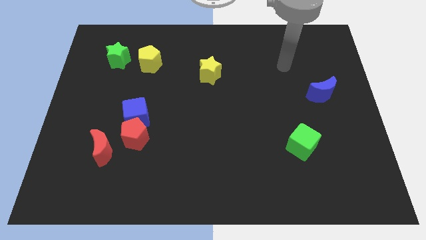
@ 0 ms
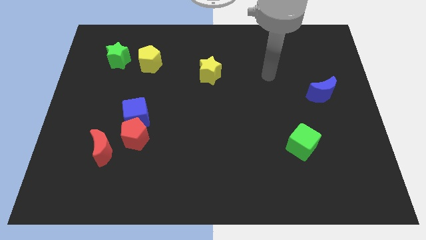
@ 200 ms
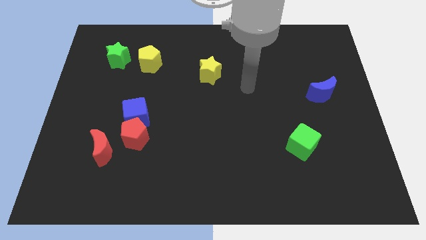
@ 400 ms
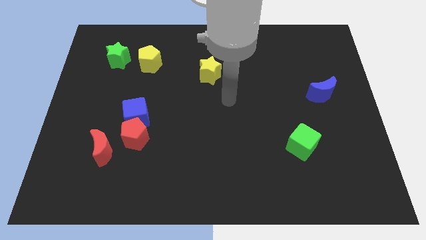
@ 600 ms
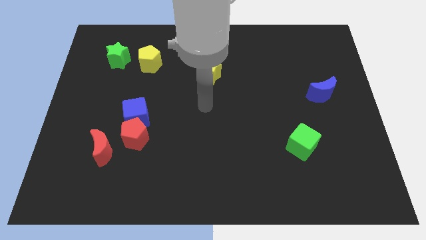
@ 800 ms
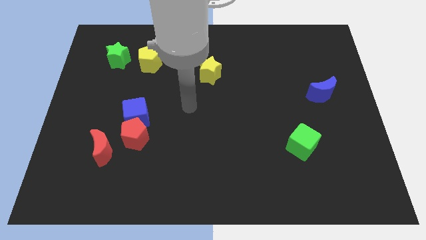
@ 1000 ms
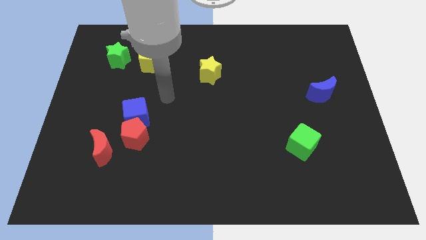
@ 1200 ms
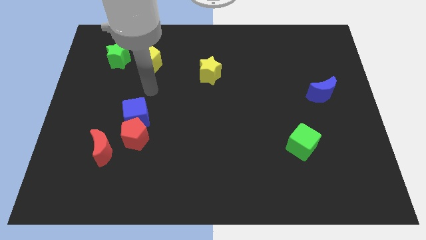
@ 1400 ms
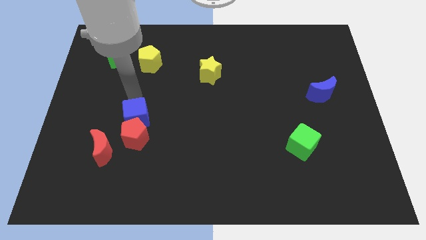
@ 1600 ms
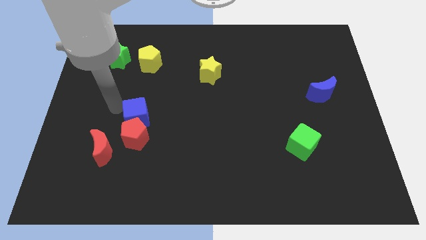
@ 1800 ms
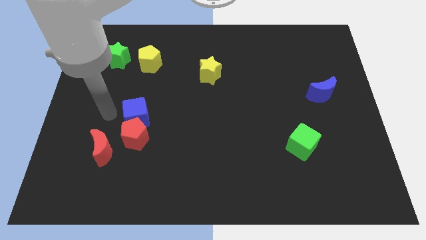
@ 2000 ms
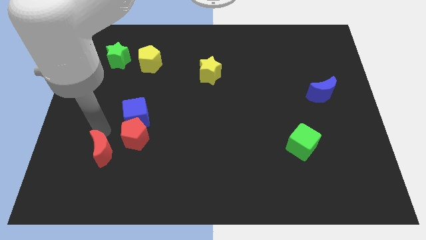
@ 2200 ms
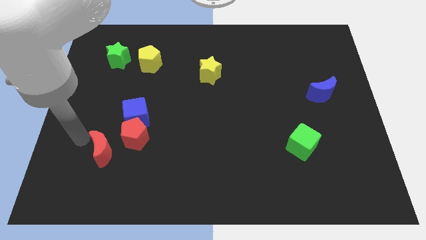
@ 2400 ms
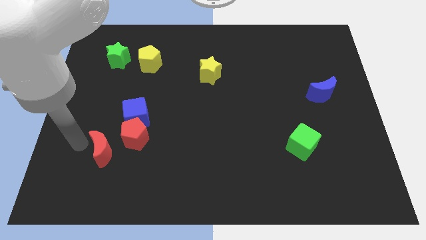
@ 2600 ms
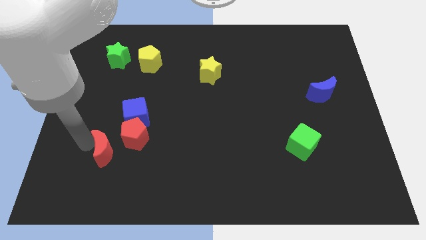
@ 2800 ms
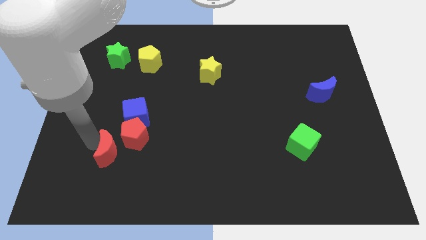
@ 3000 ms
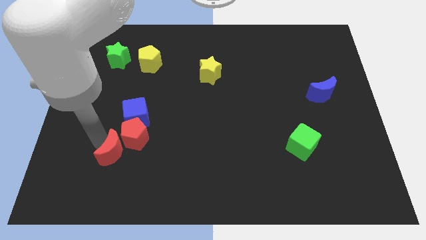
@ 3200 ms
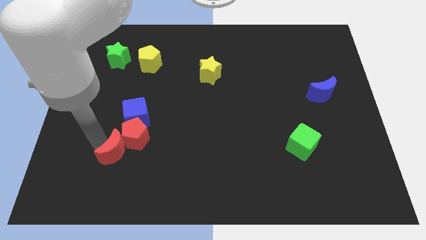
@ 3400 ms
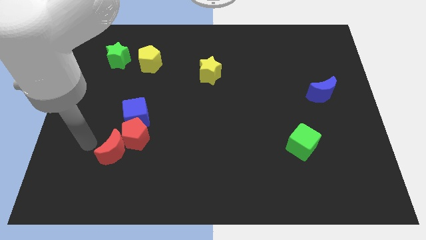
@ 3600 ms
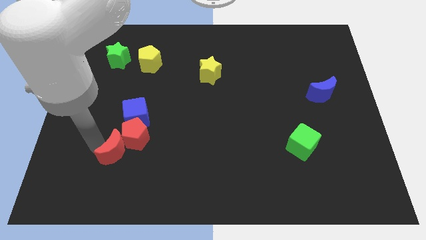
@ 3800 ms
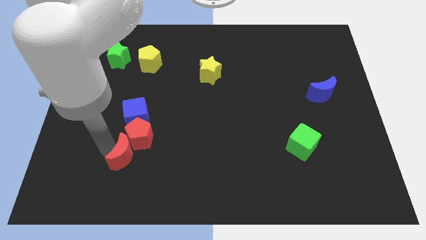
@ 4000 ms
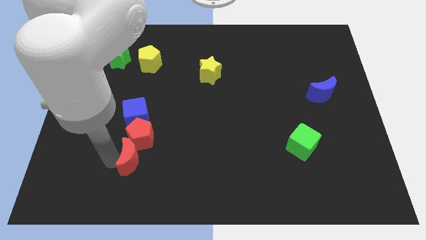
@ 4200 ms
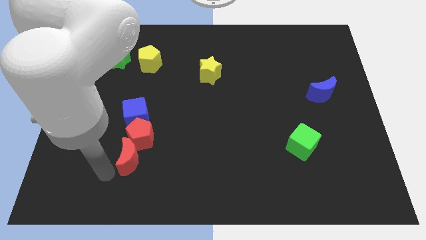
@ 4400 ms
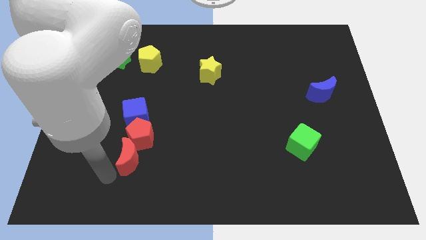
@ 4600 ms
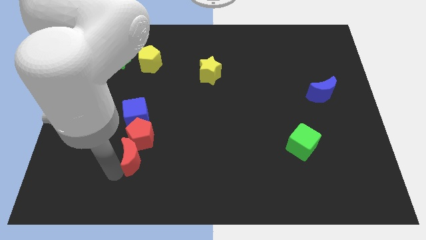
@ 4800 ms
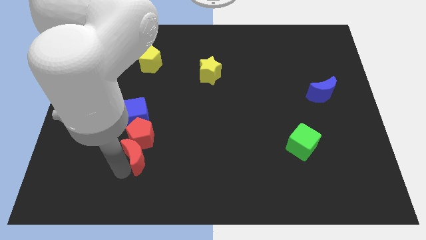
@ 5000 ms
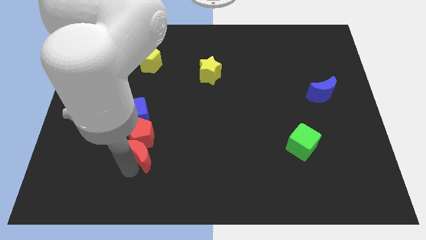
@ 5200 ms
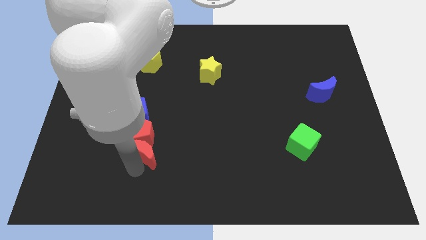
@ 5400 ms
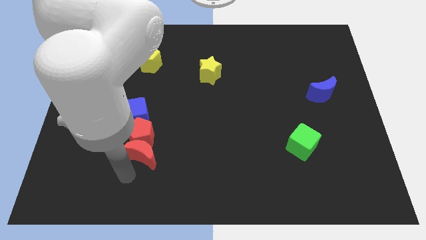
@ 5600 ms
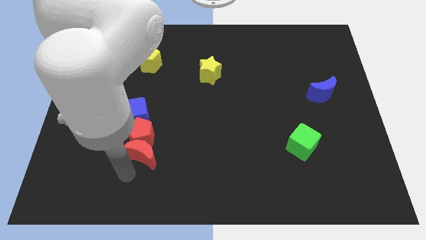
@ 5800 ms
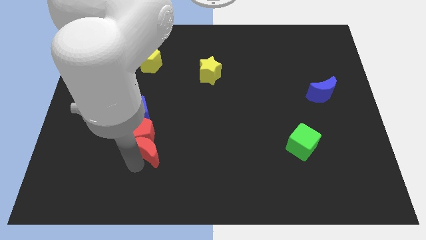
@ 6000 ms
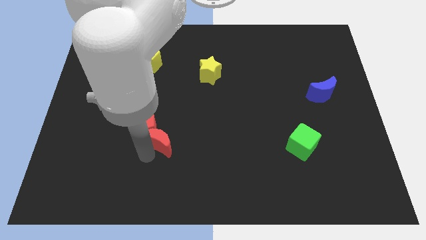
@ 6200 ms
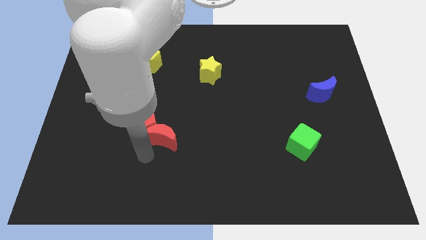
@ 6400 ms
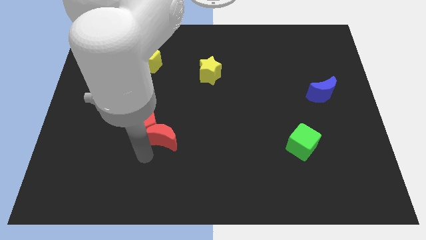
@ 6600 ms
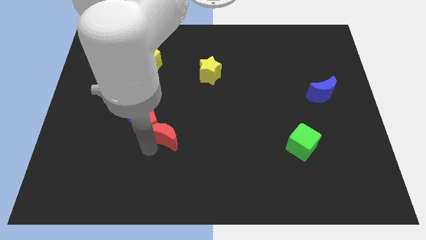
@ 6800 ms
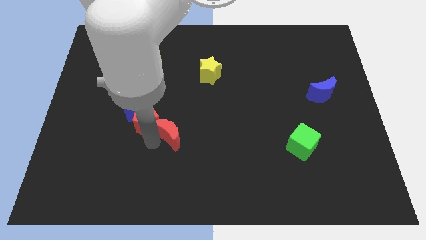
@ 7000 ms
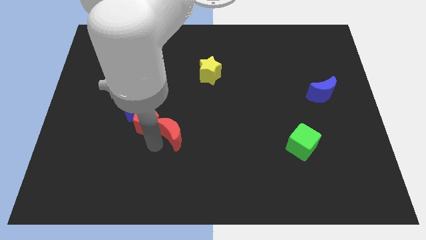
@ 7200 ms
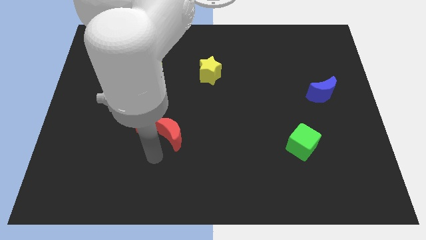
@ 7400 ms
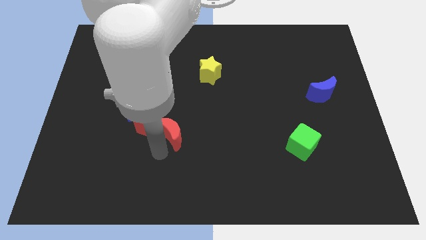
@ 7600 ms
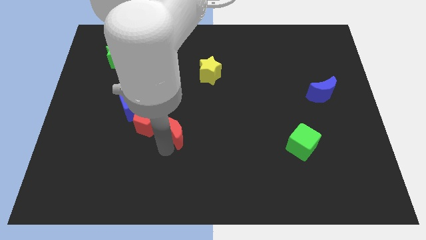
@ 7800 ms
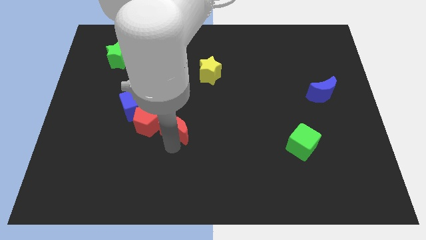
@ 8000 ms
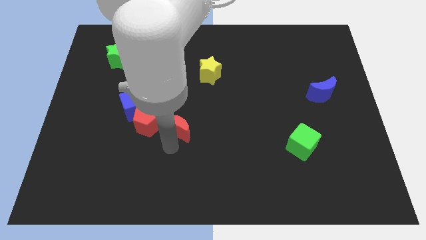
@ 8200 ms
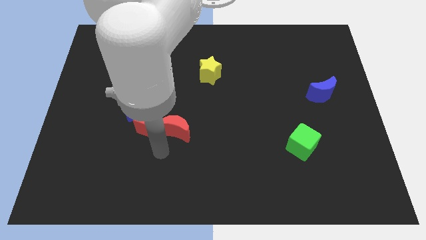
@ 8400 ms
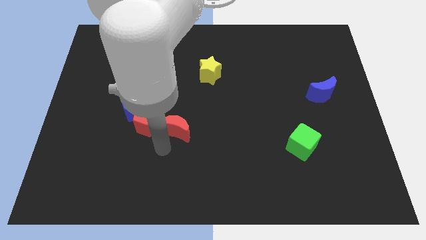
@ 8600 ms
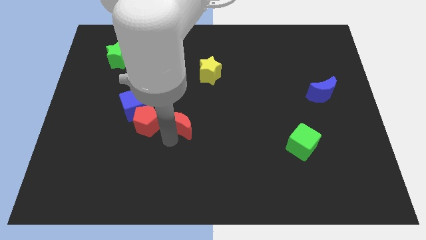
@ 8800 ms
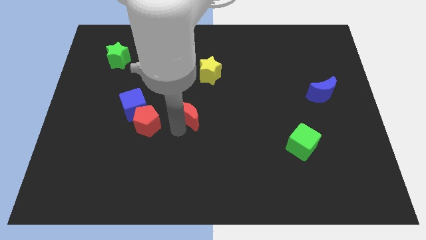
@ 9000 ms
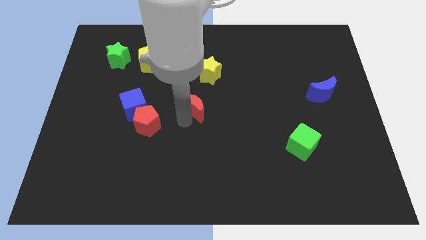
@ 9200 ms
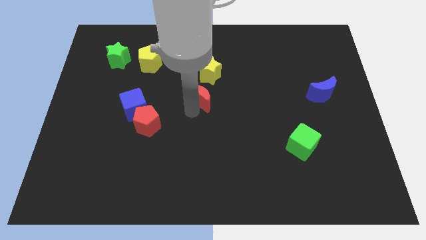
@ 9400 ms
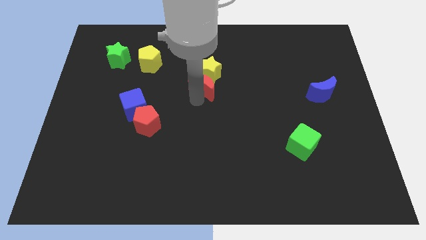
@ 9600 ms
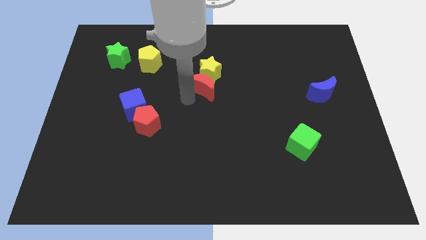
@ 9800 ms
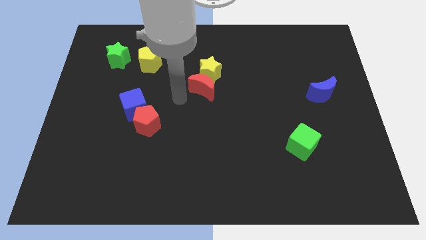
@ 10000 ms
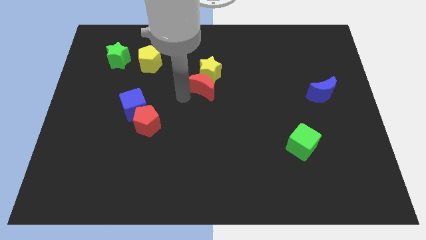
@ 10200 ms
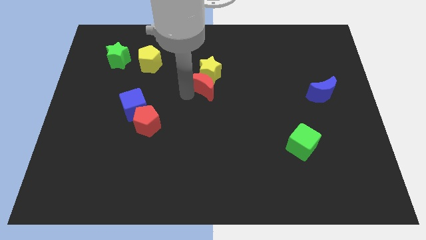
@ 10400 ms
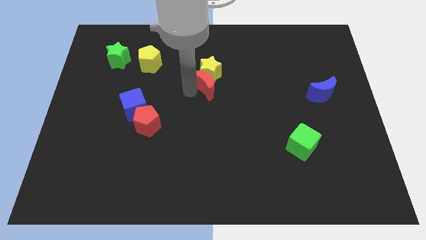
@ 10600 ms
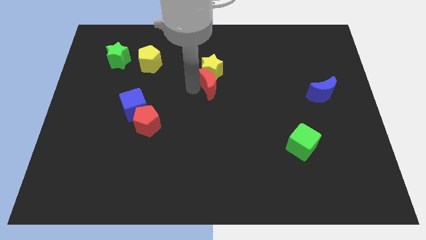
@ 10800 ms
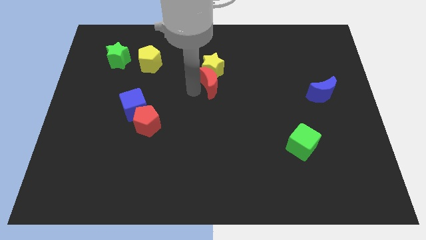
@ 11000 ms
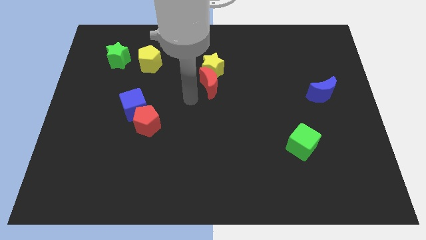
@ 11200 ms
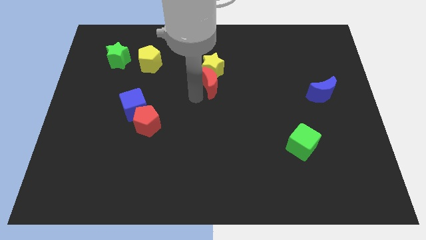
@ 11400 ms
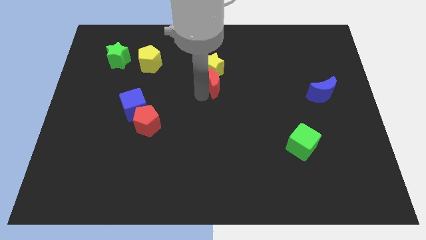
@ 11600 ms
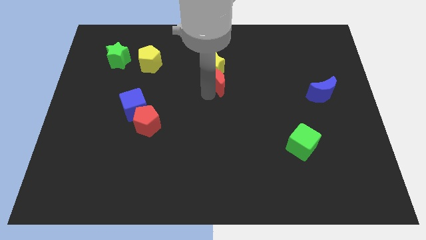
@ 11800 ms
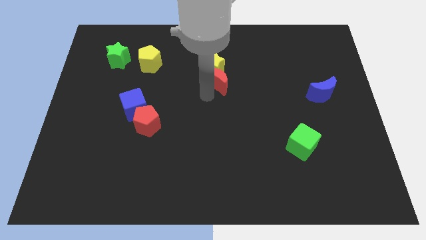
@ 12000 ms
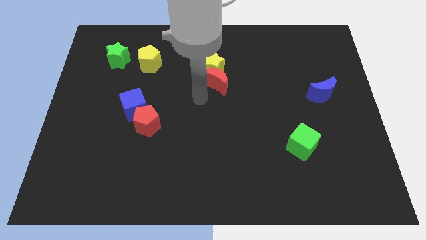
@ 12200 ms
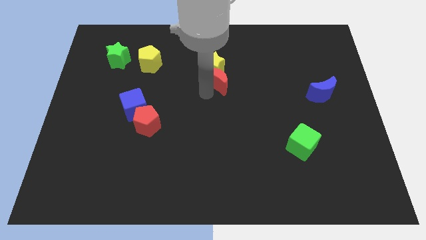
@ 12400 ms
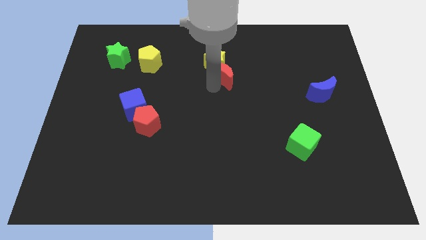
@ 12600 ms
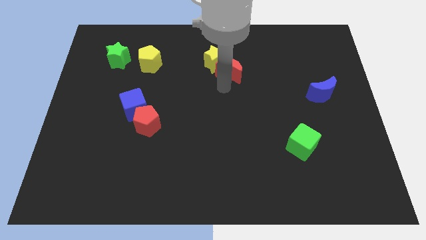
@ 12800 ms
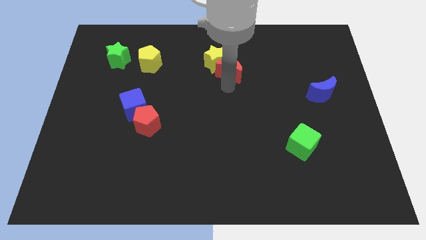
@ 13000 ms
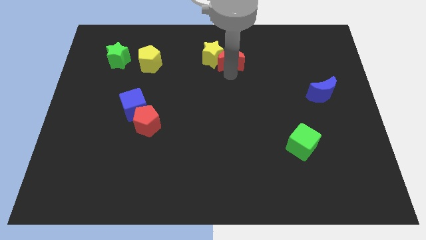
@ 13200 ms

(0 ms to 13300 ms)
push the red moon diagonally up and to the right of the yellow star
